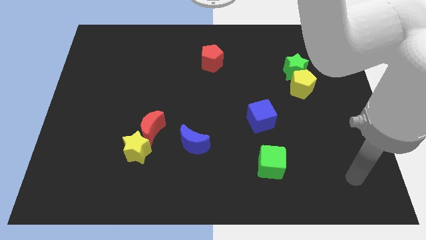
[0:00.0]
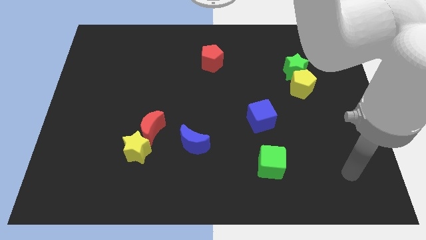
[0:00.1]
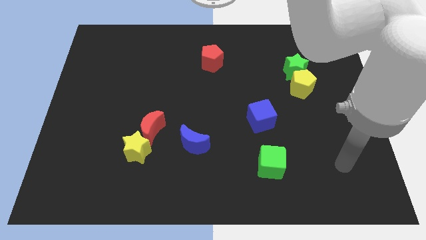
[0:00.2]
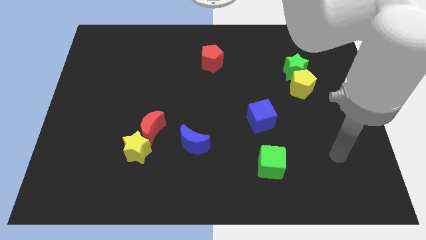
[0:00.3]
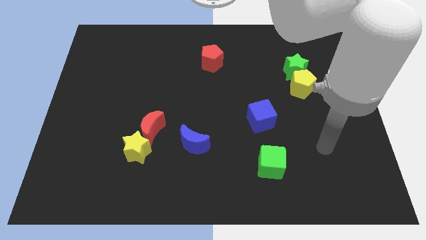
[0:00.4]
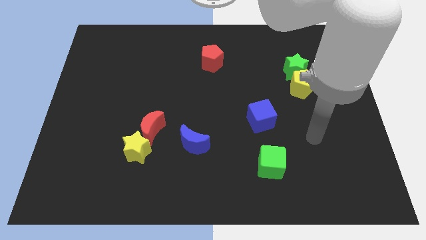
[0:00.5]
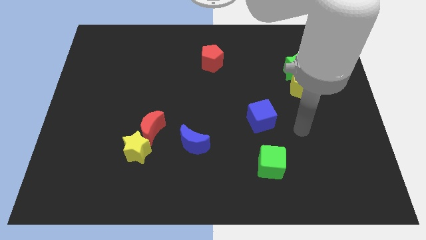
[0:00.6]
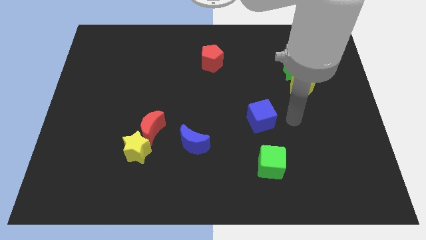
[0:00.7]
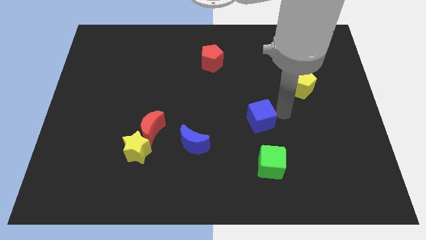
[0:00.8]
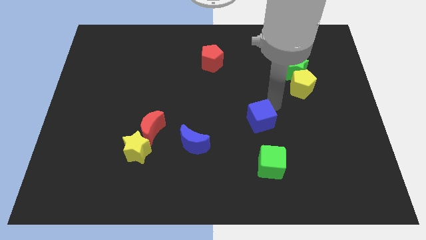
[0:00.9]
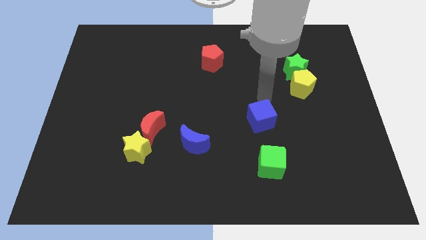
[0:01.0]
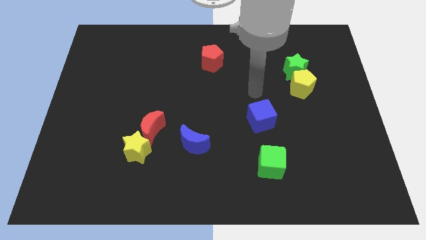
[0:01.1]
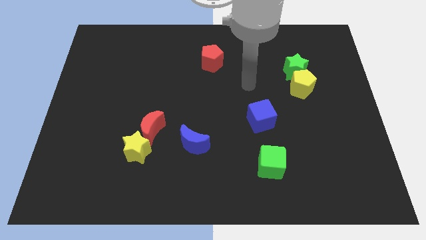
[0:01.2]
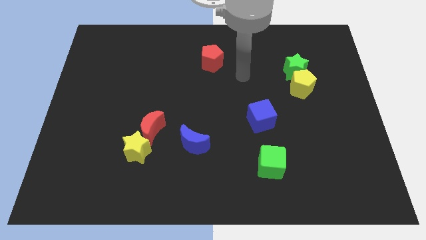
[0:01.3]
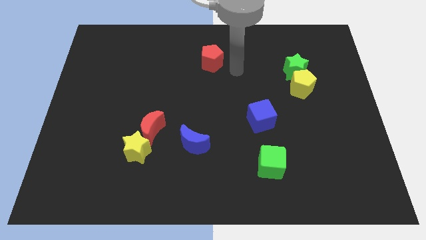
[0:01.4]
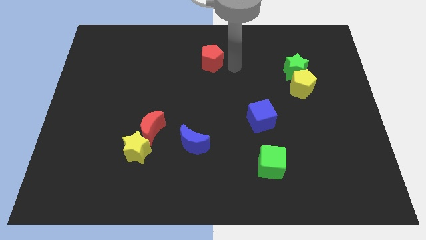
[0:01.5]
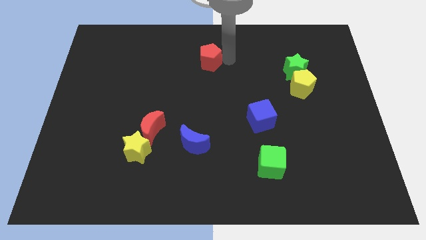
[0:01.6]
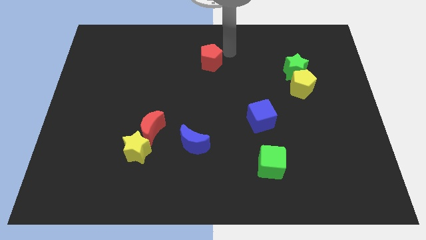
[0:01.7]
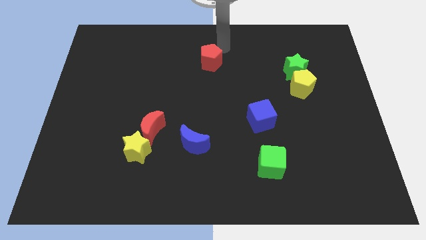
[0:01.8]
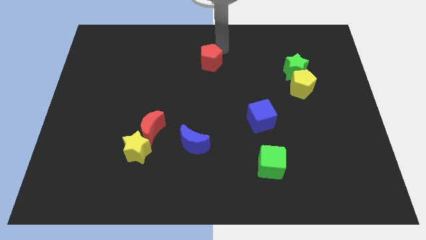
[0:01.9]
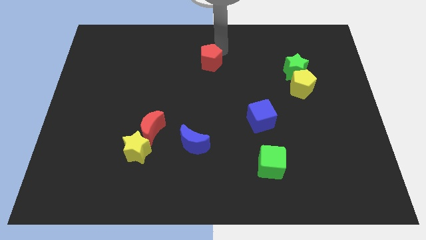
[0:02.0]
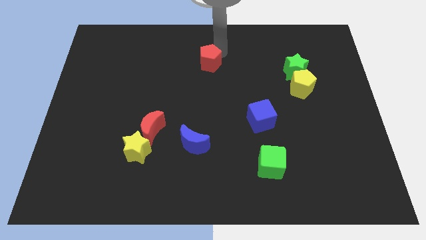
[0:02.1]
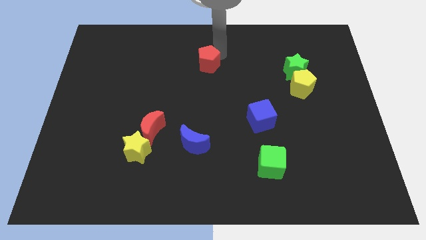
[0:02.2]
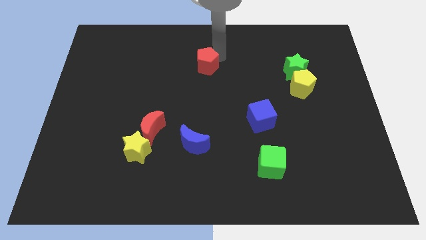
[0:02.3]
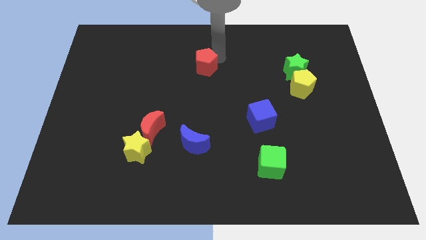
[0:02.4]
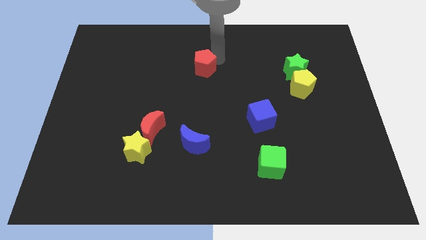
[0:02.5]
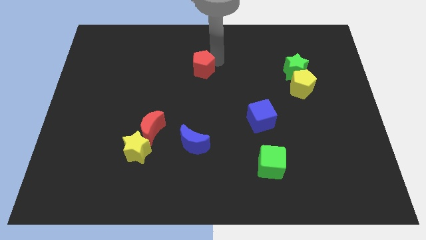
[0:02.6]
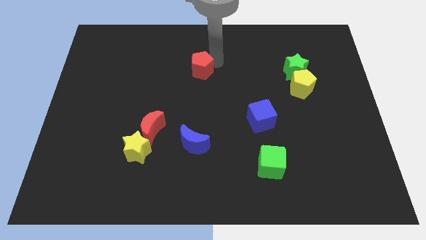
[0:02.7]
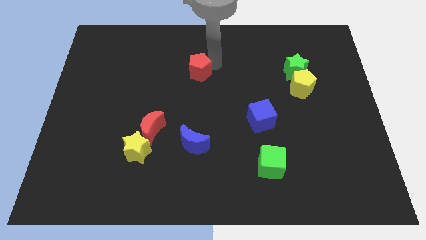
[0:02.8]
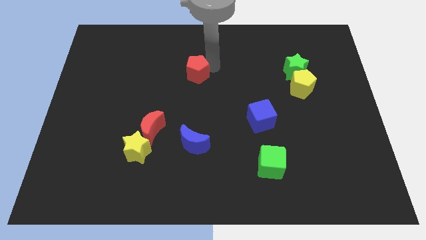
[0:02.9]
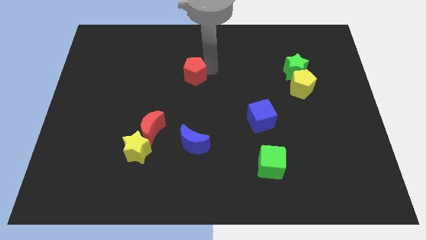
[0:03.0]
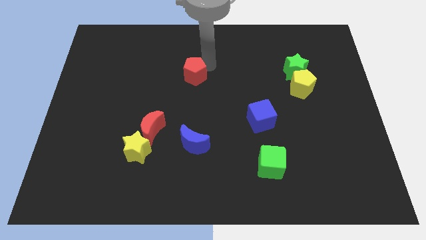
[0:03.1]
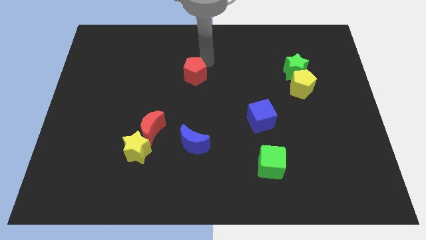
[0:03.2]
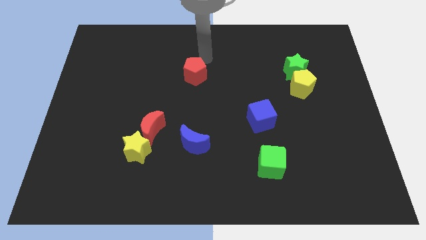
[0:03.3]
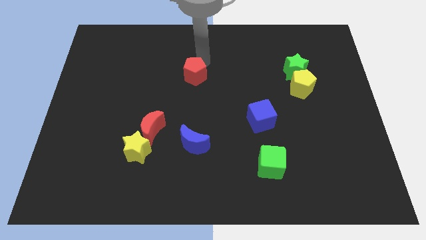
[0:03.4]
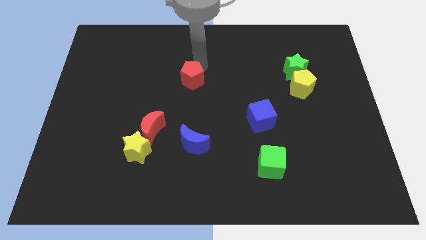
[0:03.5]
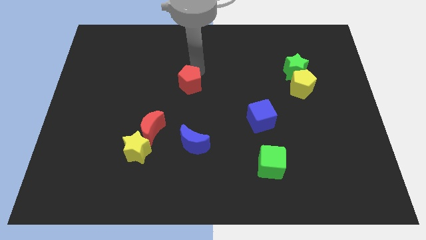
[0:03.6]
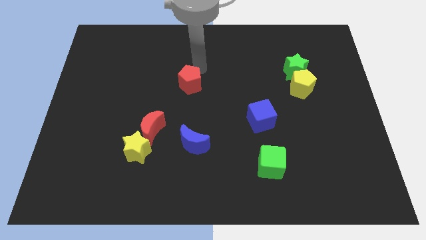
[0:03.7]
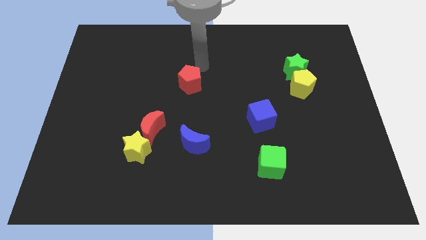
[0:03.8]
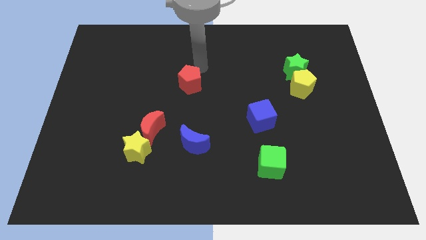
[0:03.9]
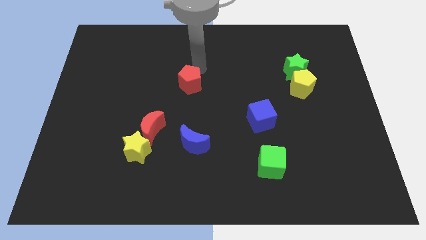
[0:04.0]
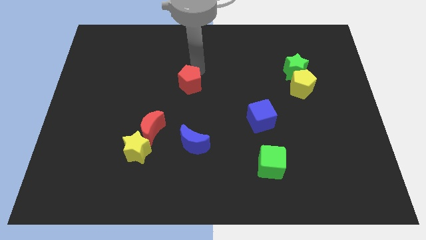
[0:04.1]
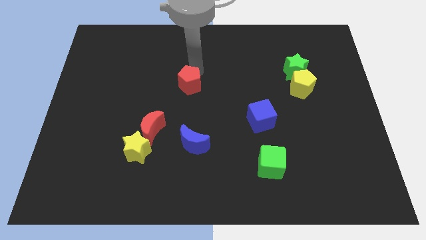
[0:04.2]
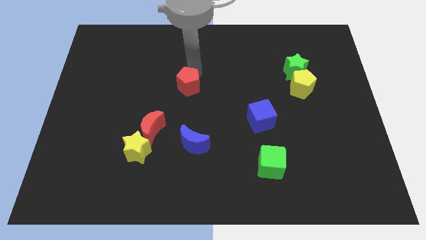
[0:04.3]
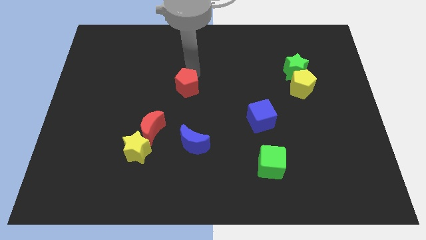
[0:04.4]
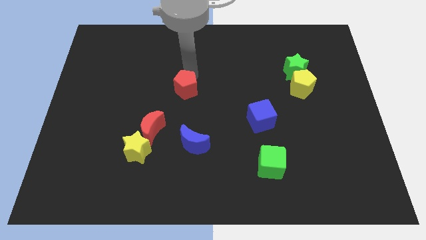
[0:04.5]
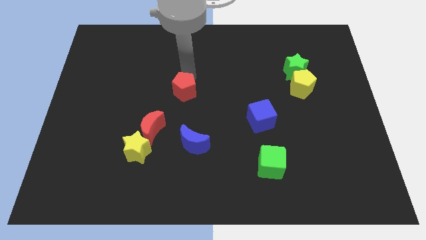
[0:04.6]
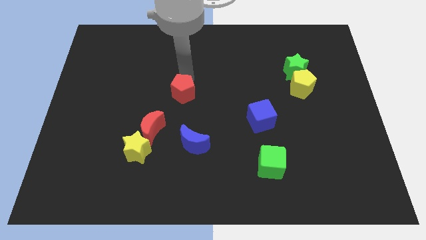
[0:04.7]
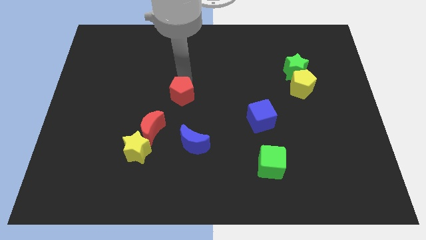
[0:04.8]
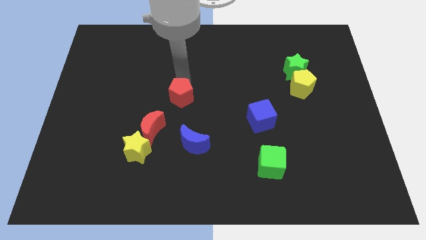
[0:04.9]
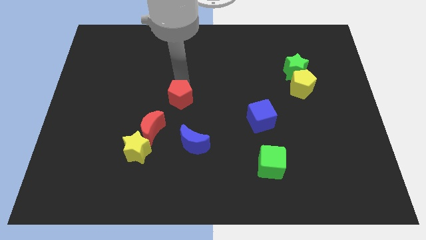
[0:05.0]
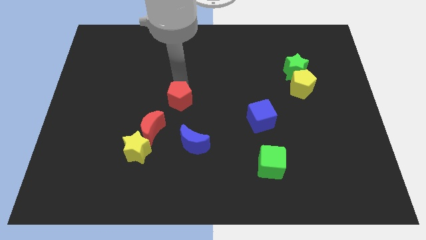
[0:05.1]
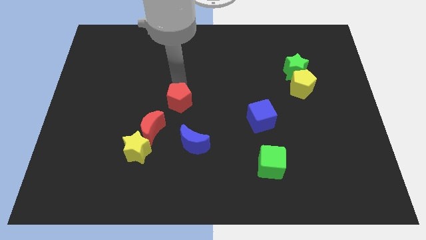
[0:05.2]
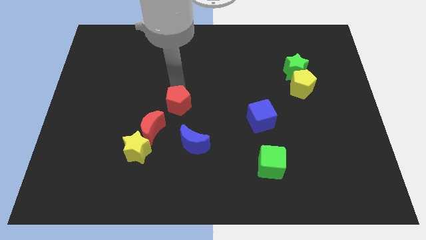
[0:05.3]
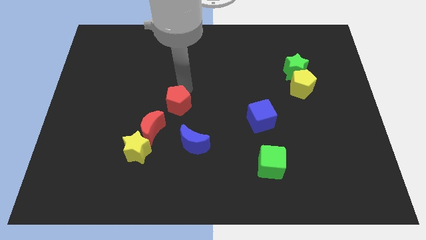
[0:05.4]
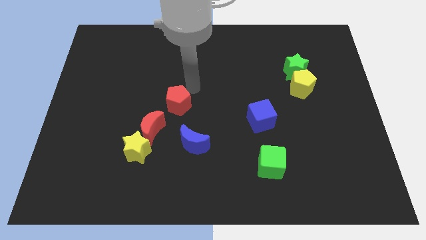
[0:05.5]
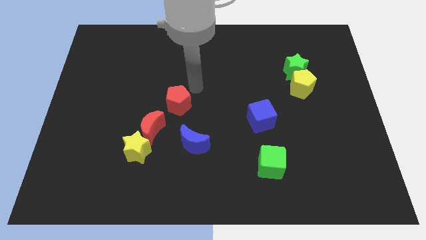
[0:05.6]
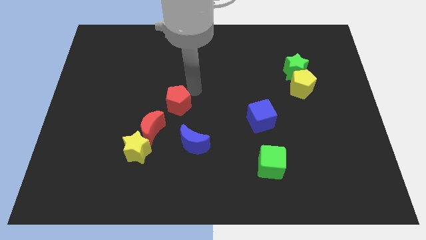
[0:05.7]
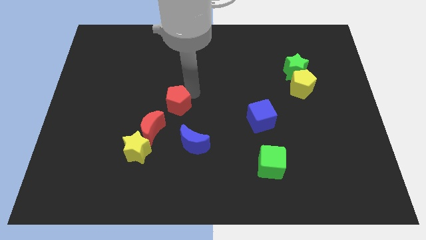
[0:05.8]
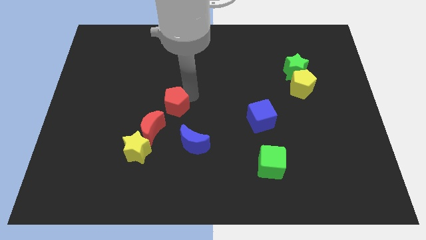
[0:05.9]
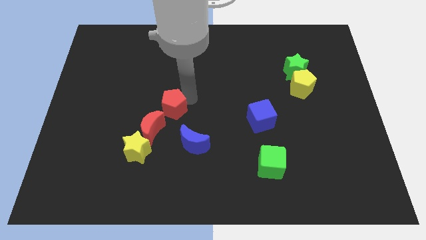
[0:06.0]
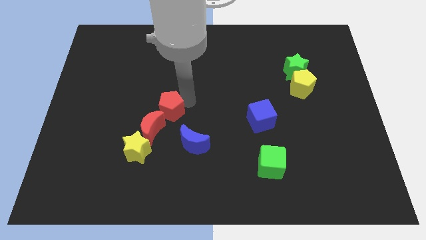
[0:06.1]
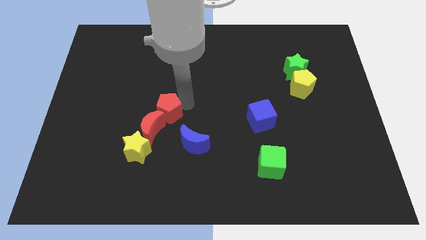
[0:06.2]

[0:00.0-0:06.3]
slide the red pentagon to the red moon
